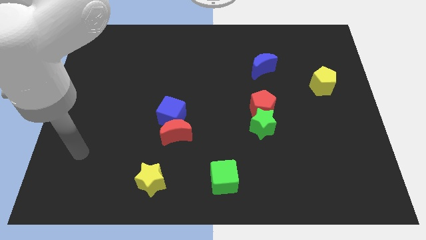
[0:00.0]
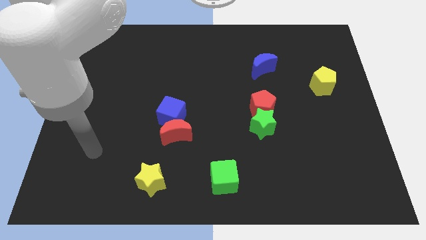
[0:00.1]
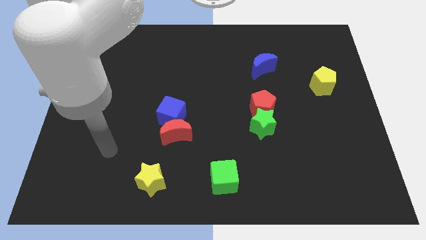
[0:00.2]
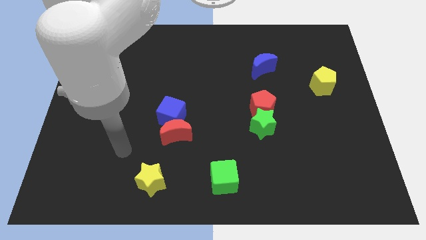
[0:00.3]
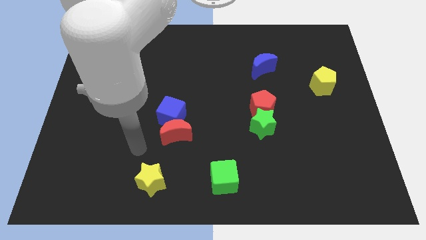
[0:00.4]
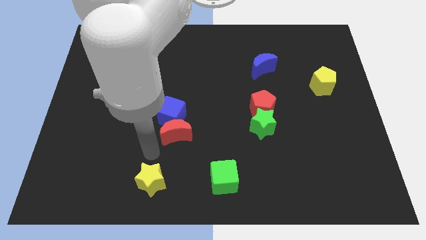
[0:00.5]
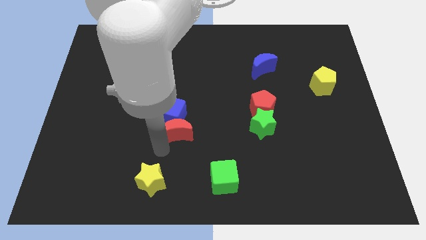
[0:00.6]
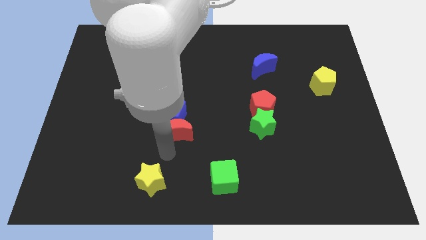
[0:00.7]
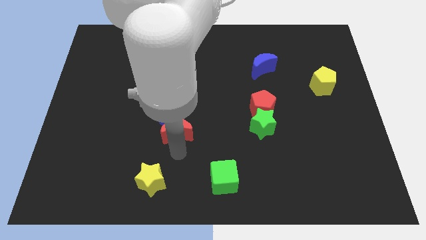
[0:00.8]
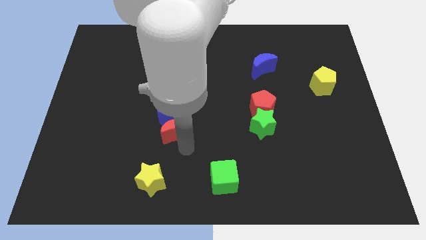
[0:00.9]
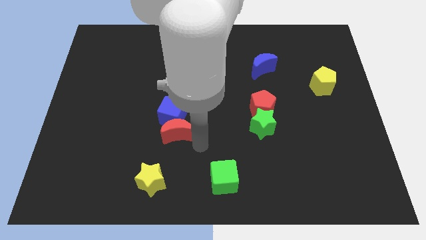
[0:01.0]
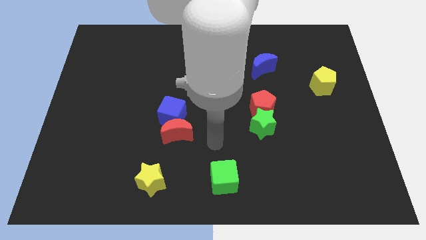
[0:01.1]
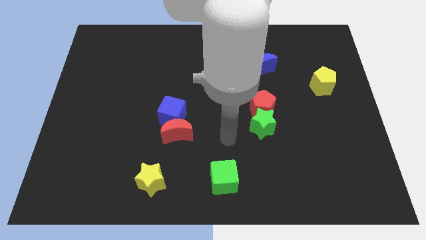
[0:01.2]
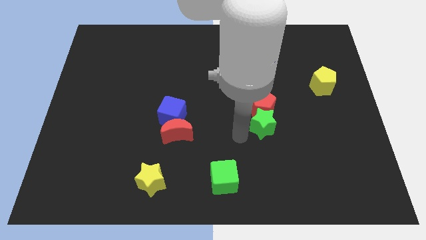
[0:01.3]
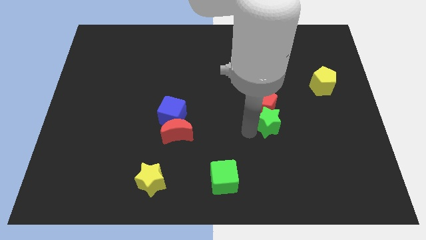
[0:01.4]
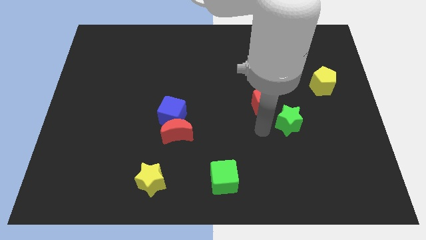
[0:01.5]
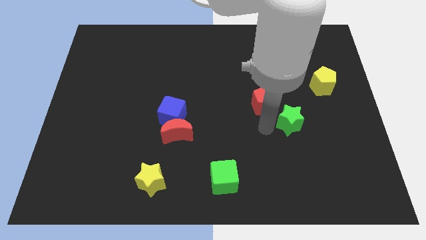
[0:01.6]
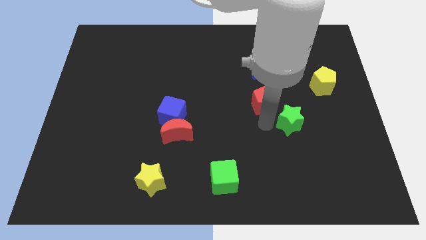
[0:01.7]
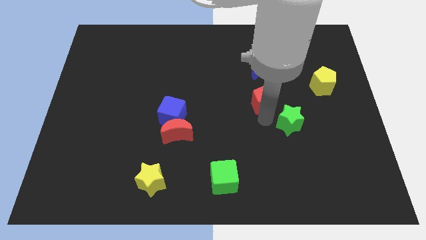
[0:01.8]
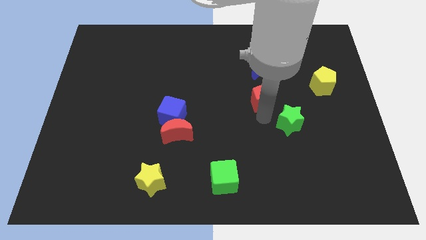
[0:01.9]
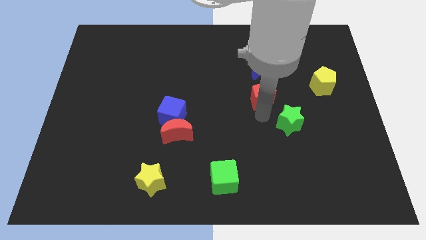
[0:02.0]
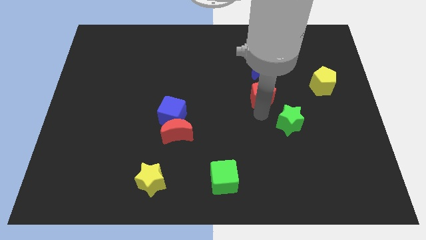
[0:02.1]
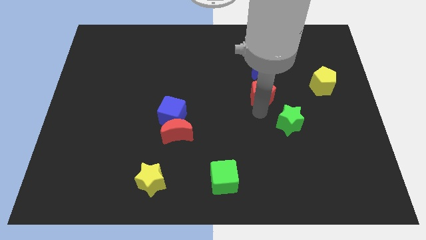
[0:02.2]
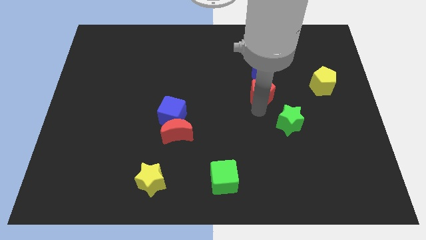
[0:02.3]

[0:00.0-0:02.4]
pull the red pentagon apart from the green star

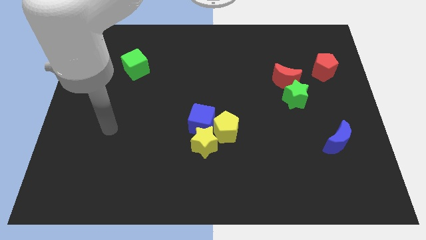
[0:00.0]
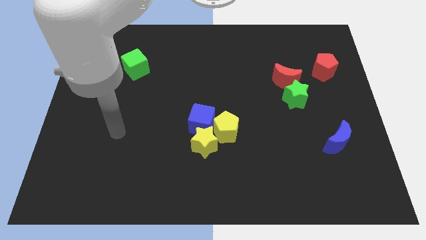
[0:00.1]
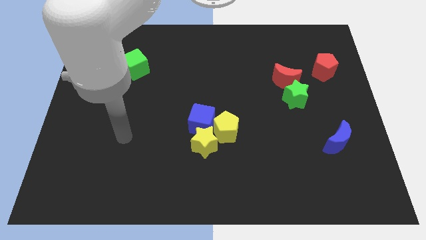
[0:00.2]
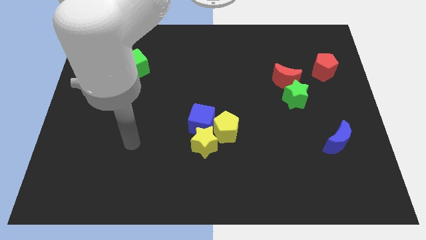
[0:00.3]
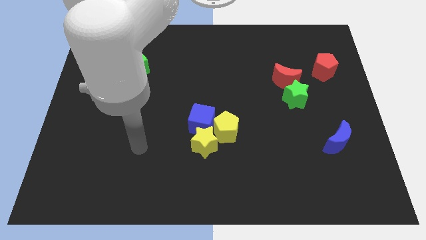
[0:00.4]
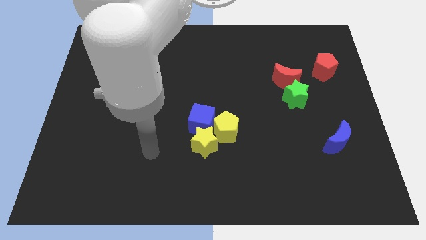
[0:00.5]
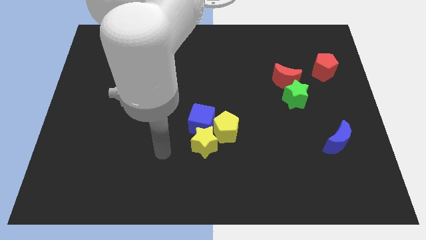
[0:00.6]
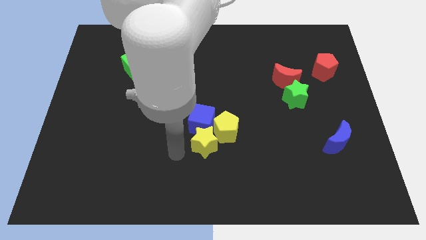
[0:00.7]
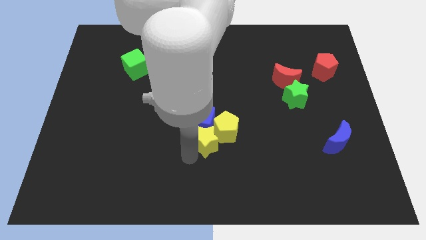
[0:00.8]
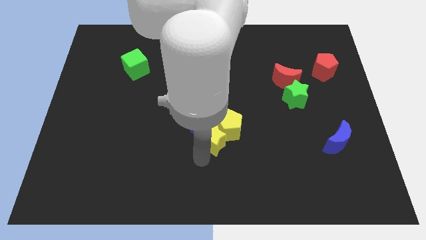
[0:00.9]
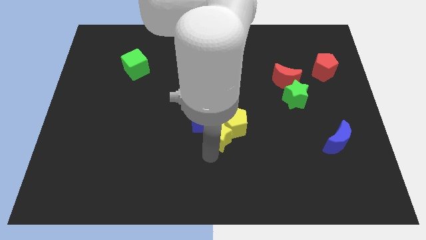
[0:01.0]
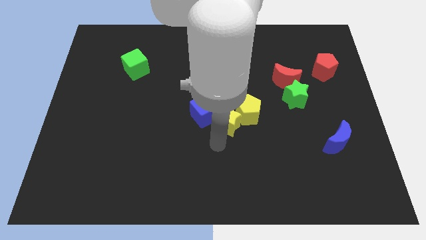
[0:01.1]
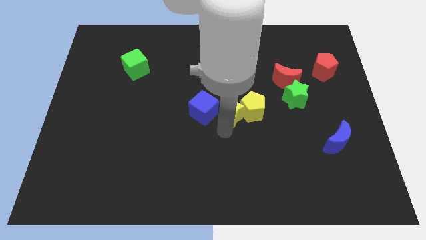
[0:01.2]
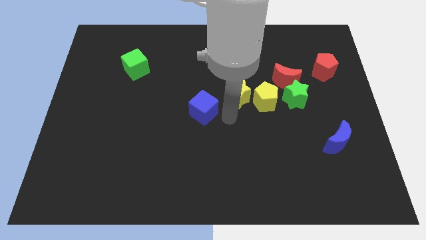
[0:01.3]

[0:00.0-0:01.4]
move the blue cube away from the yellow star and yellow pentagon

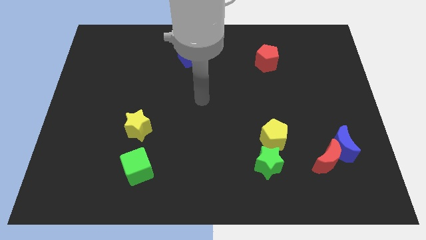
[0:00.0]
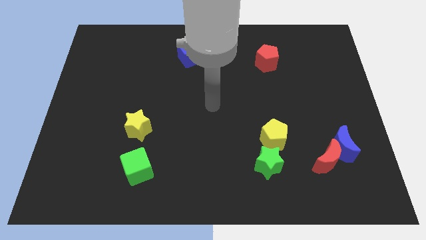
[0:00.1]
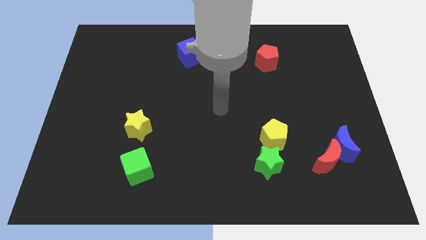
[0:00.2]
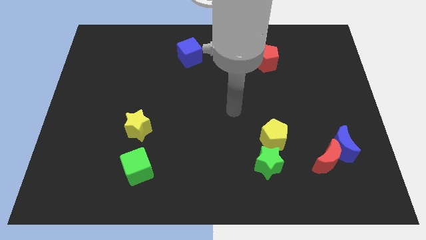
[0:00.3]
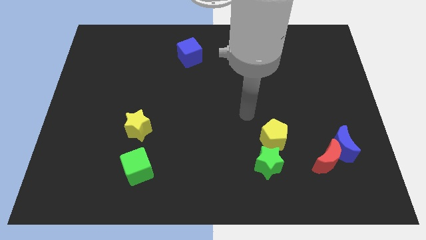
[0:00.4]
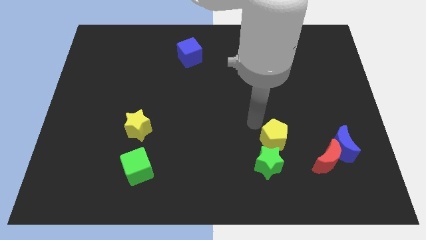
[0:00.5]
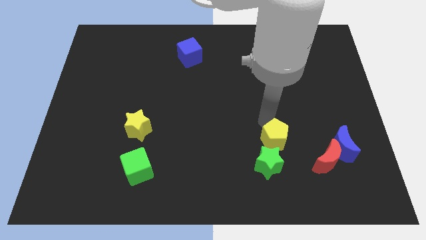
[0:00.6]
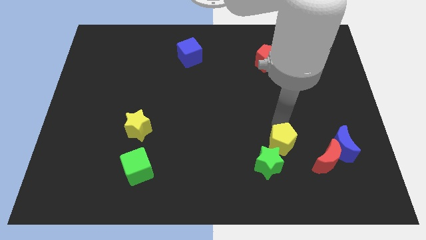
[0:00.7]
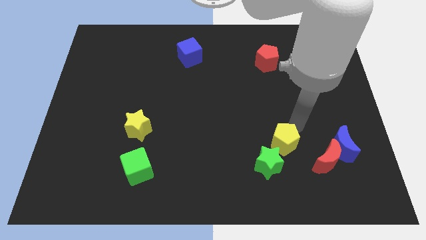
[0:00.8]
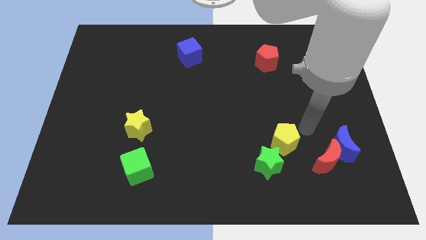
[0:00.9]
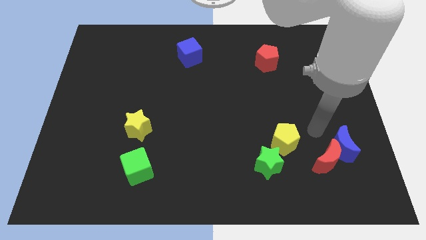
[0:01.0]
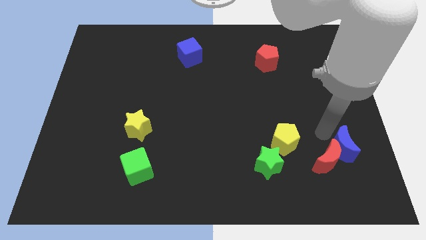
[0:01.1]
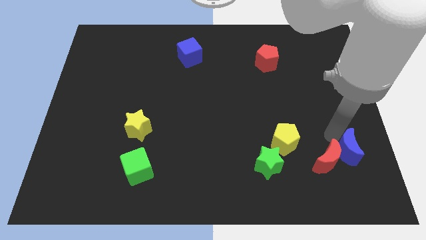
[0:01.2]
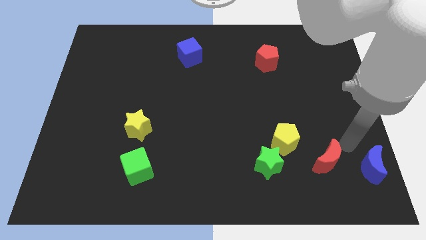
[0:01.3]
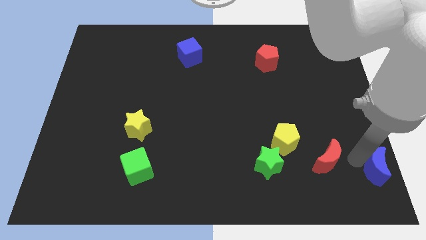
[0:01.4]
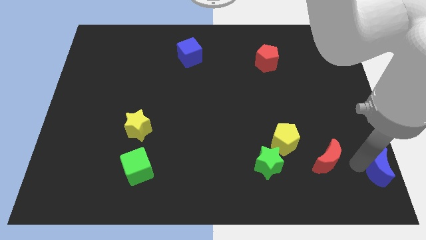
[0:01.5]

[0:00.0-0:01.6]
separate the red moon from the blue moon

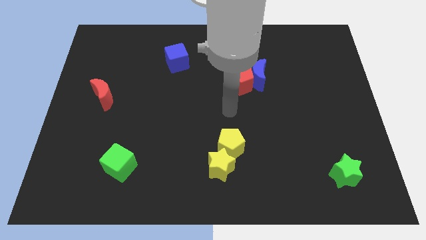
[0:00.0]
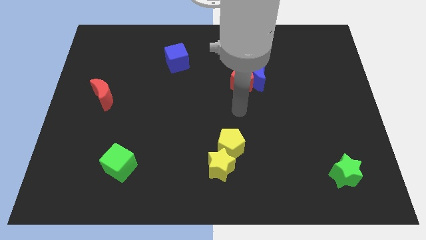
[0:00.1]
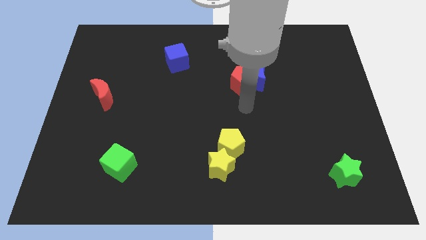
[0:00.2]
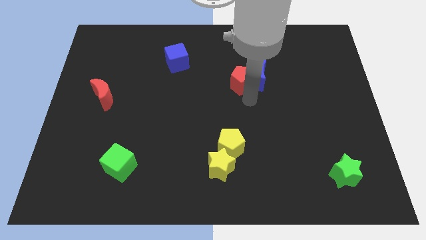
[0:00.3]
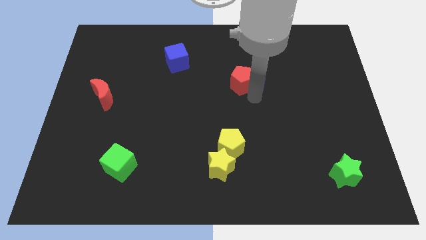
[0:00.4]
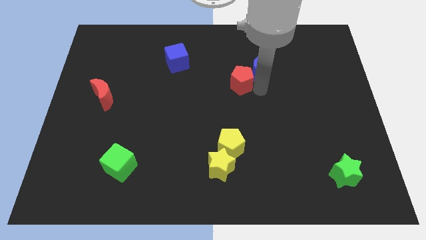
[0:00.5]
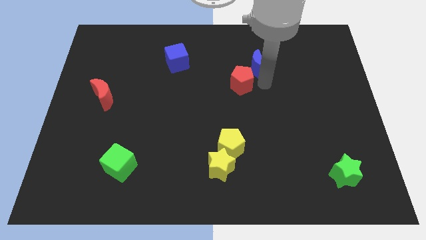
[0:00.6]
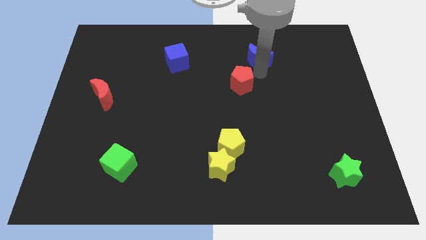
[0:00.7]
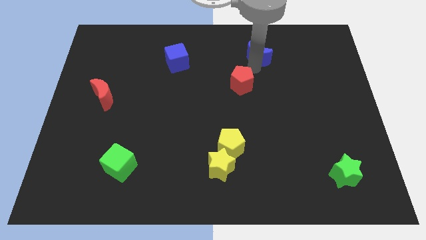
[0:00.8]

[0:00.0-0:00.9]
separate the red pentagon from the blue moon

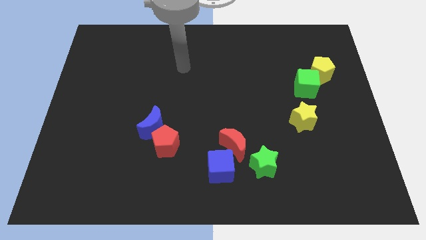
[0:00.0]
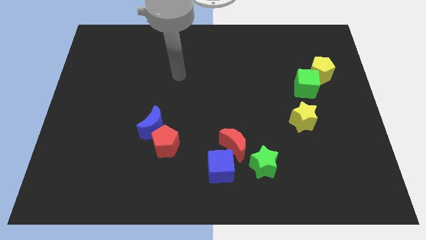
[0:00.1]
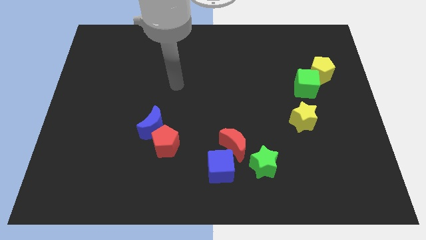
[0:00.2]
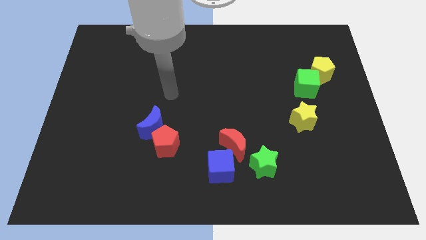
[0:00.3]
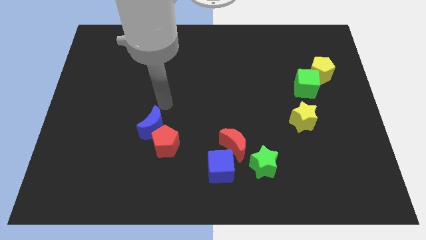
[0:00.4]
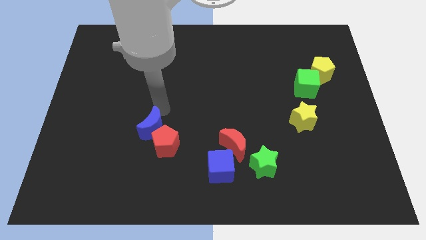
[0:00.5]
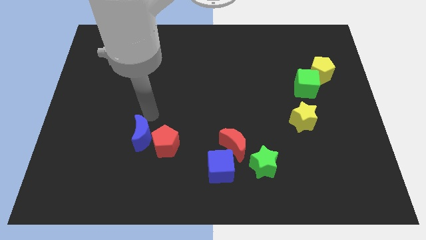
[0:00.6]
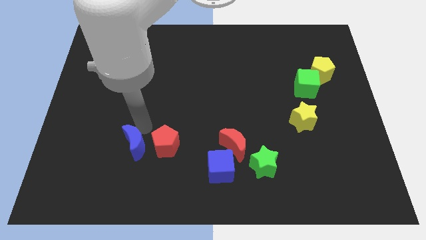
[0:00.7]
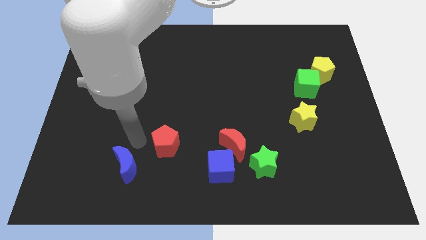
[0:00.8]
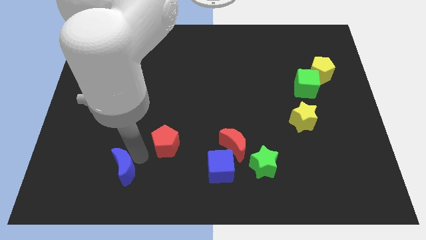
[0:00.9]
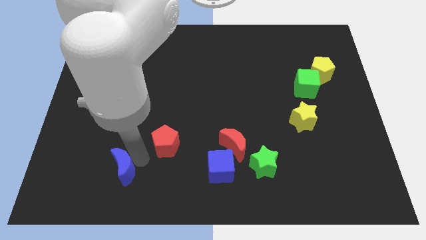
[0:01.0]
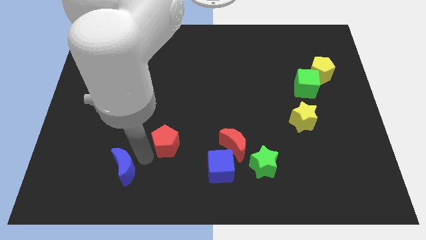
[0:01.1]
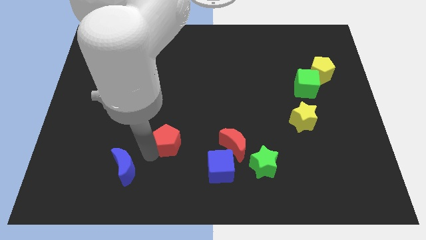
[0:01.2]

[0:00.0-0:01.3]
pull the red pentagon apart from the blue moon

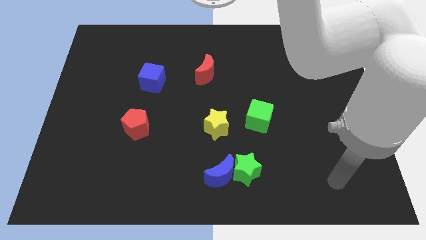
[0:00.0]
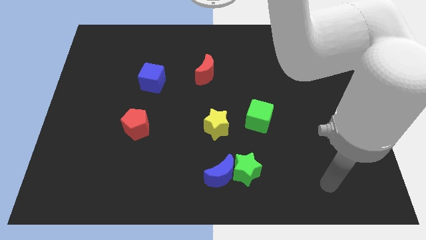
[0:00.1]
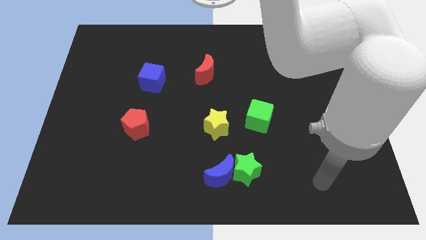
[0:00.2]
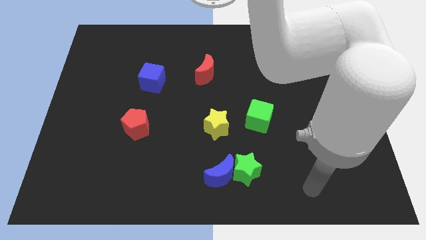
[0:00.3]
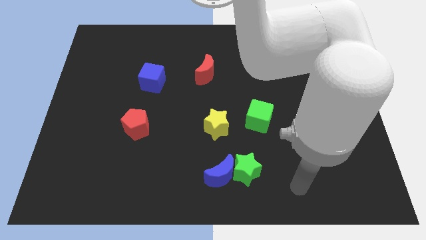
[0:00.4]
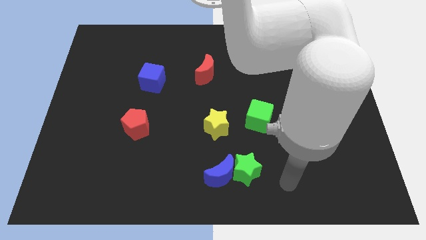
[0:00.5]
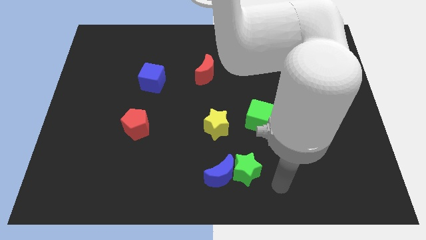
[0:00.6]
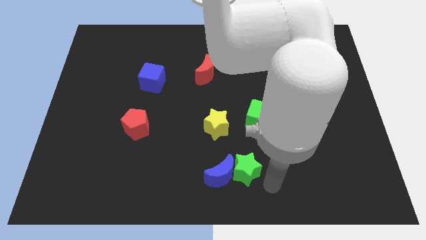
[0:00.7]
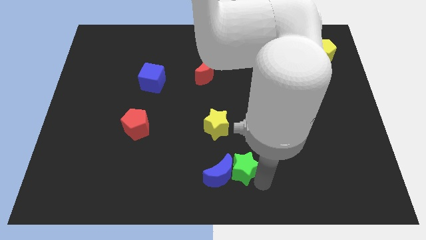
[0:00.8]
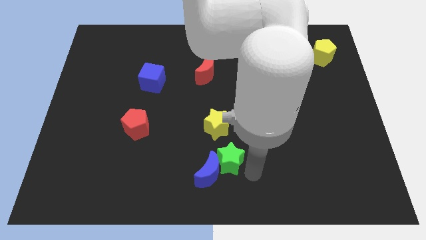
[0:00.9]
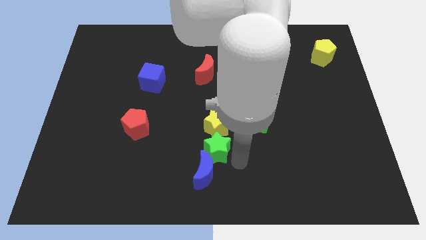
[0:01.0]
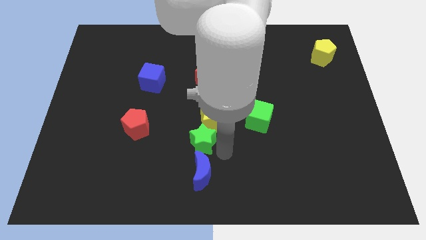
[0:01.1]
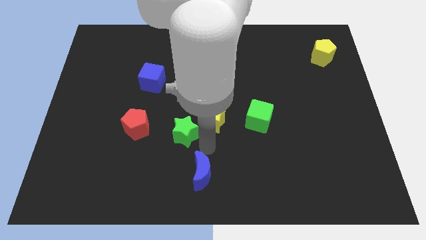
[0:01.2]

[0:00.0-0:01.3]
pull the blue moon apart from the green star

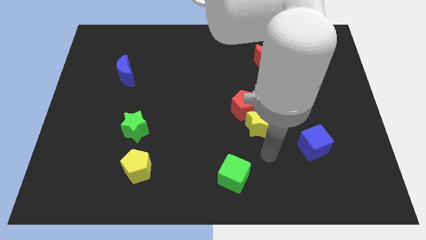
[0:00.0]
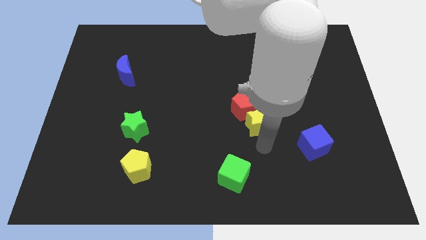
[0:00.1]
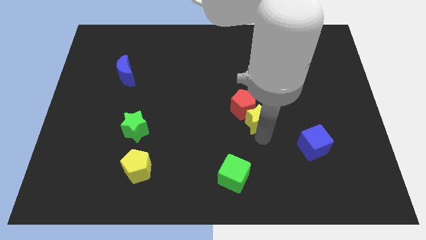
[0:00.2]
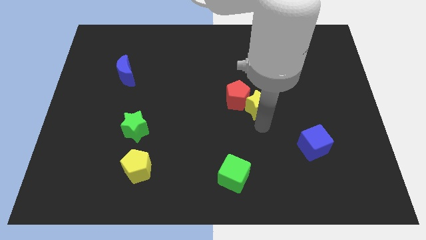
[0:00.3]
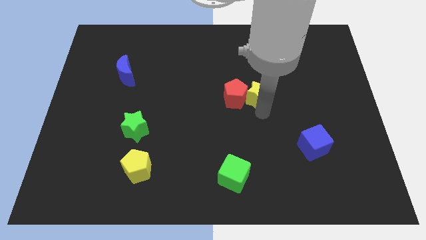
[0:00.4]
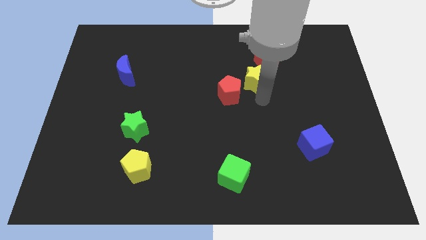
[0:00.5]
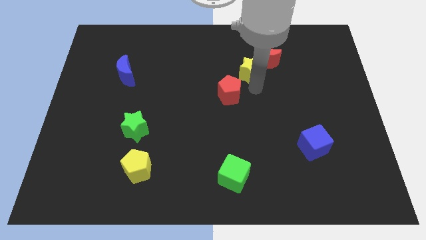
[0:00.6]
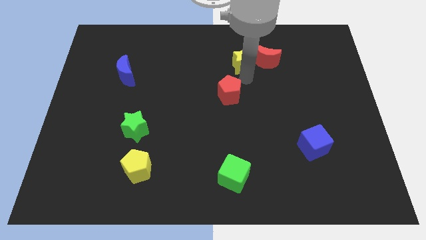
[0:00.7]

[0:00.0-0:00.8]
pull the red pentagon apart from the yellow star
